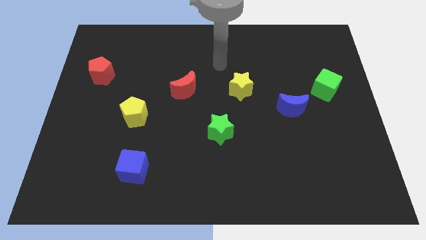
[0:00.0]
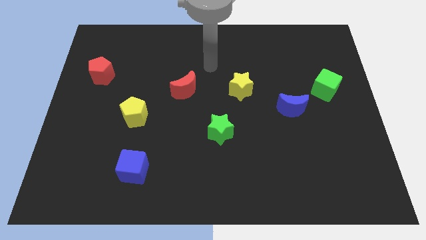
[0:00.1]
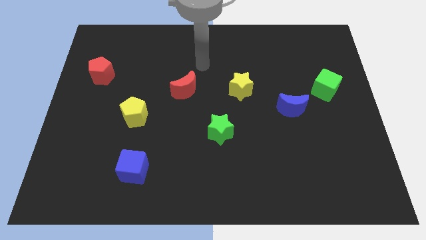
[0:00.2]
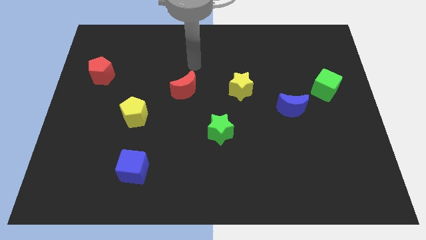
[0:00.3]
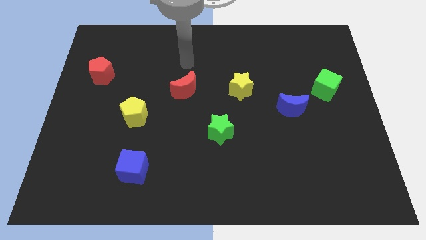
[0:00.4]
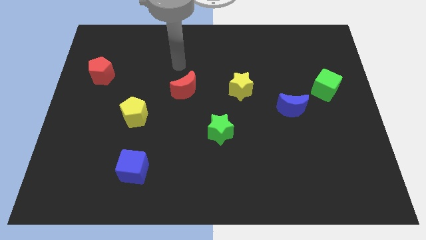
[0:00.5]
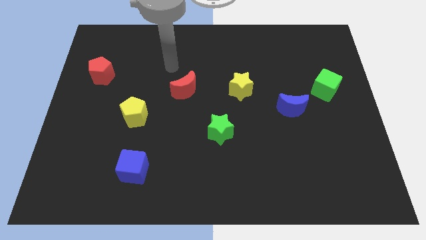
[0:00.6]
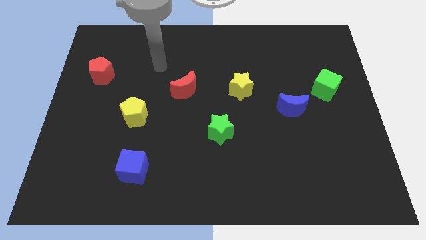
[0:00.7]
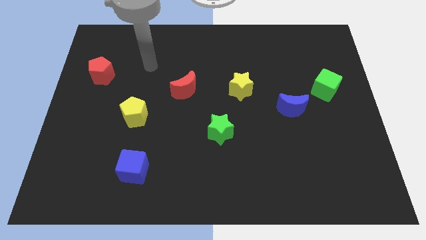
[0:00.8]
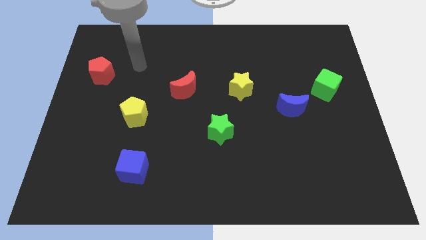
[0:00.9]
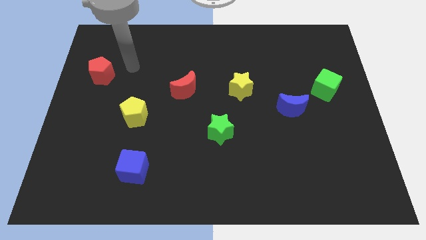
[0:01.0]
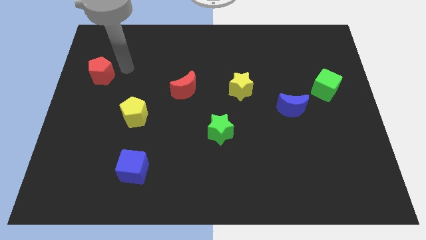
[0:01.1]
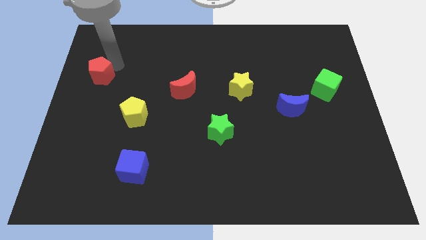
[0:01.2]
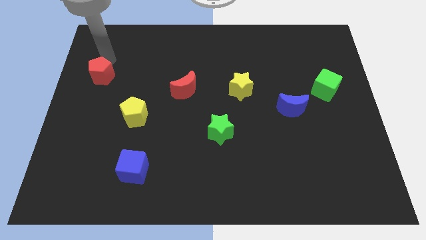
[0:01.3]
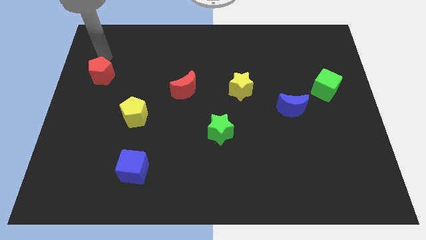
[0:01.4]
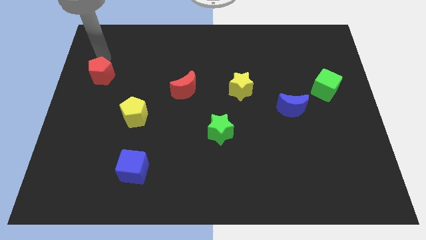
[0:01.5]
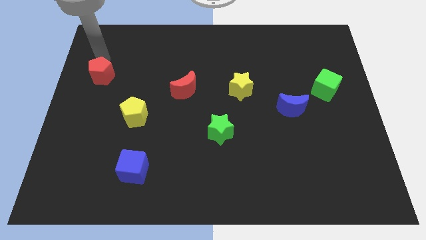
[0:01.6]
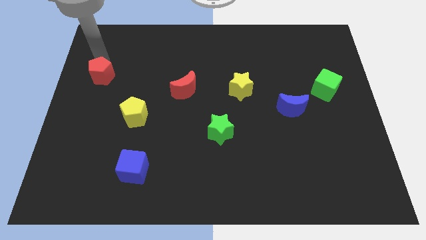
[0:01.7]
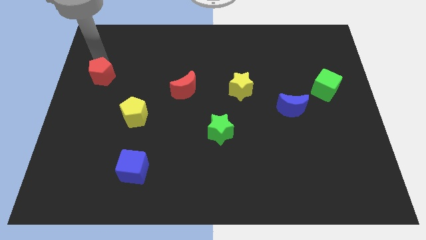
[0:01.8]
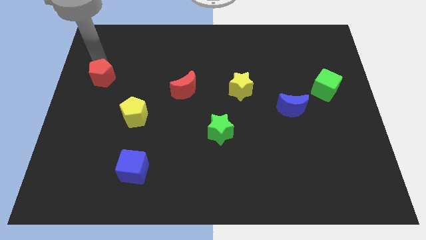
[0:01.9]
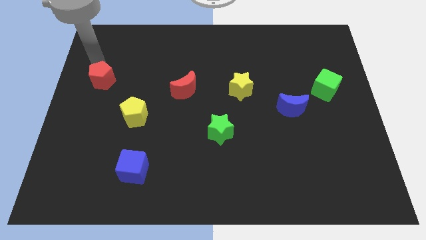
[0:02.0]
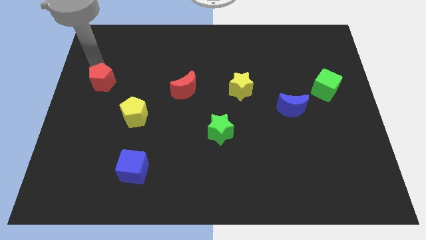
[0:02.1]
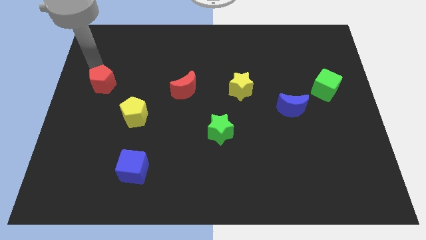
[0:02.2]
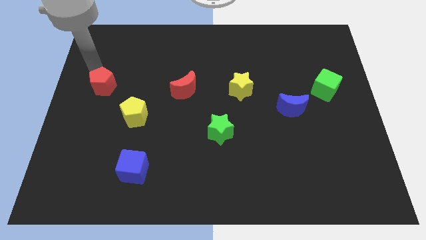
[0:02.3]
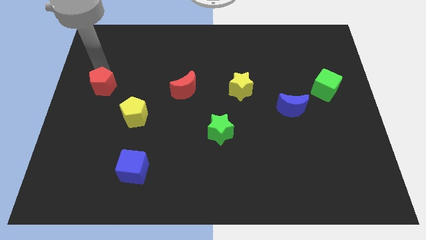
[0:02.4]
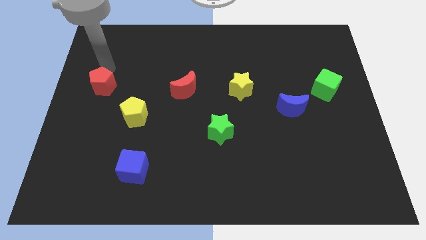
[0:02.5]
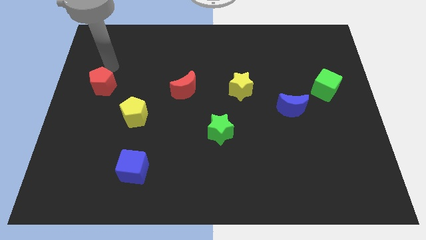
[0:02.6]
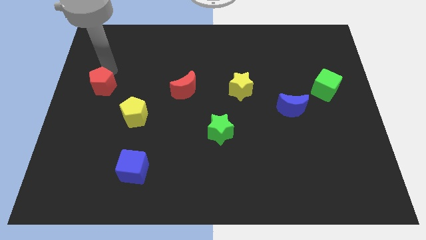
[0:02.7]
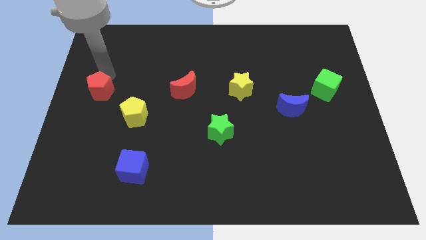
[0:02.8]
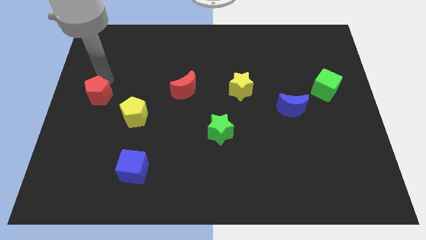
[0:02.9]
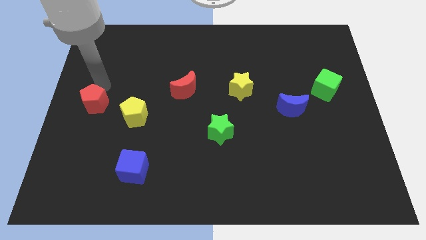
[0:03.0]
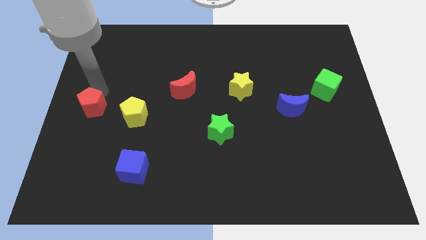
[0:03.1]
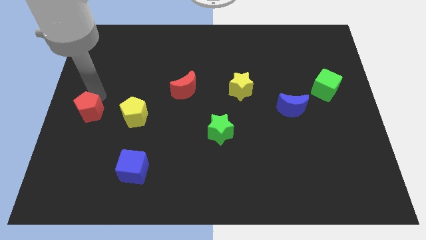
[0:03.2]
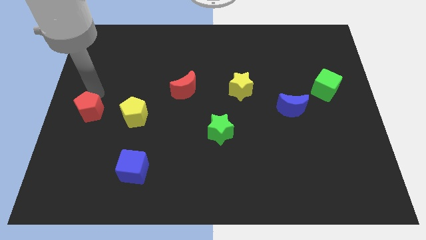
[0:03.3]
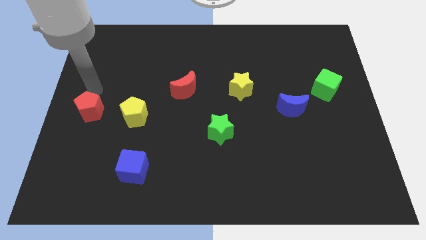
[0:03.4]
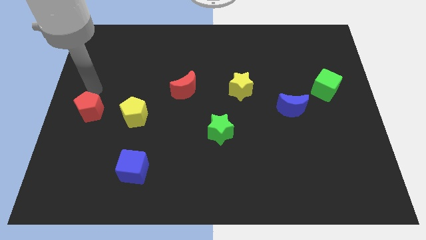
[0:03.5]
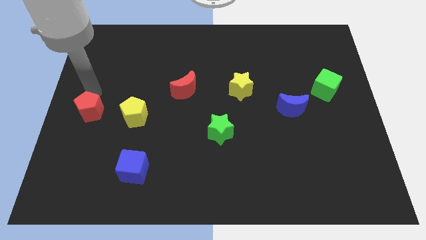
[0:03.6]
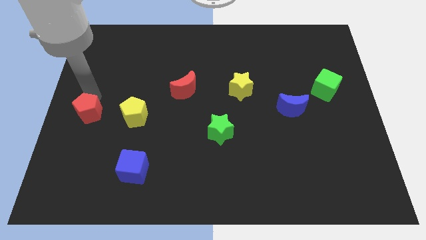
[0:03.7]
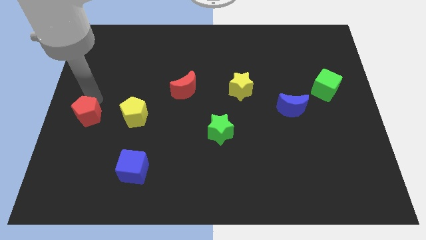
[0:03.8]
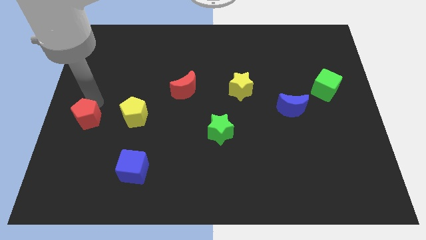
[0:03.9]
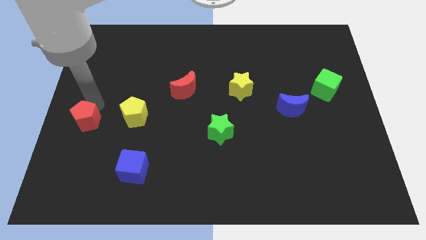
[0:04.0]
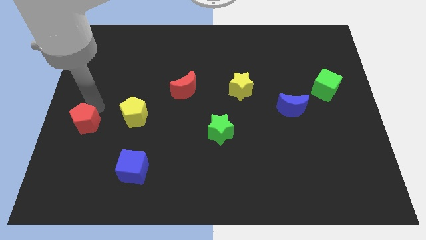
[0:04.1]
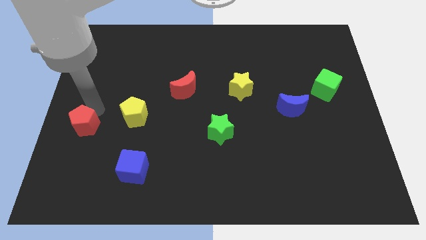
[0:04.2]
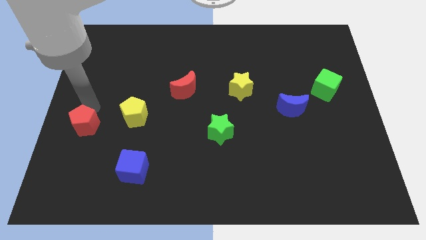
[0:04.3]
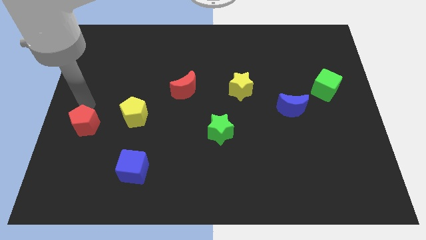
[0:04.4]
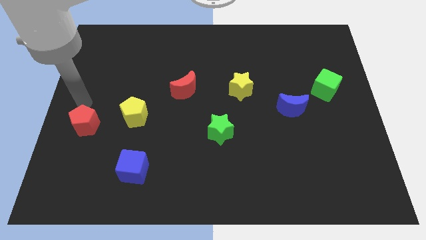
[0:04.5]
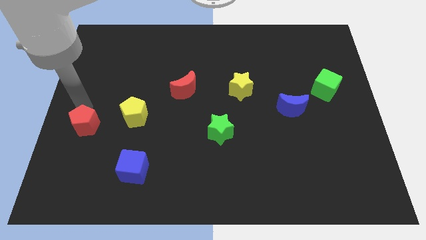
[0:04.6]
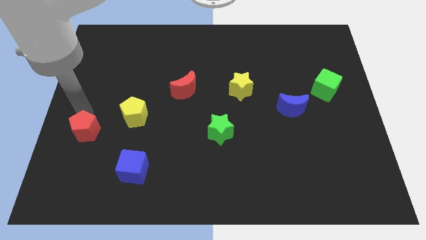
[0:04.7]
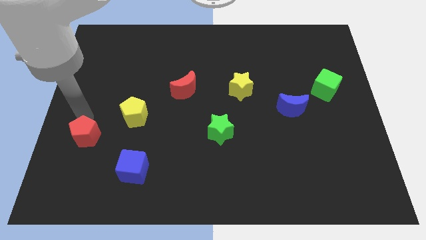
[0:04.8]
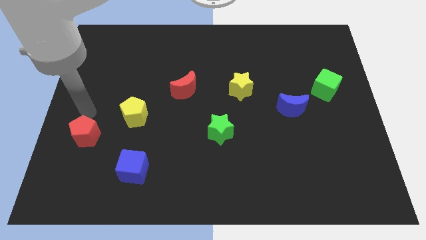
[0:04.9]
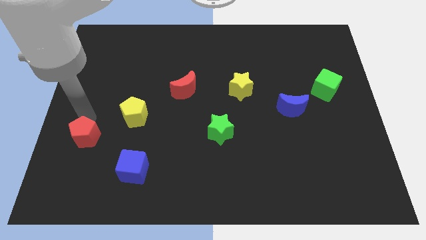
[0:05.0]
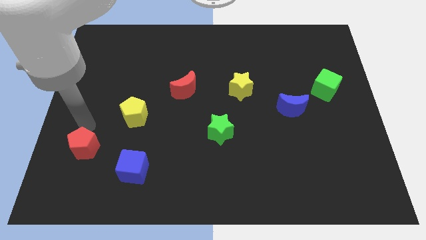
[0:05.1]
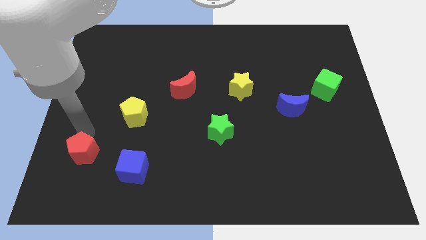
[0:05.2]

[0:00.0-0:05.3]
put the red pentagon to the left side of the blue cube

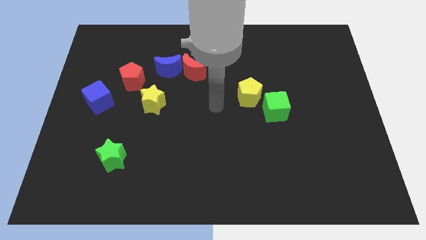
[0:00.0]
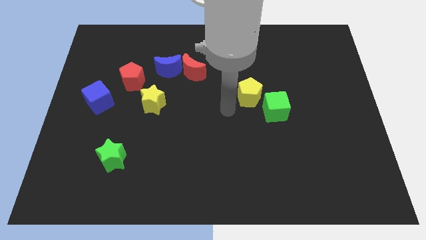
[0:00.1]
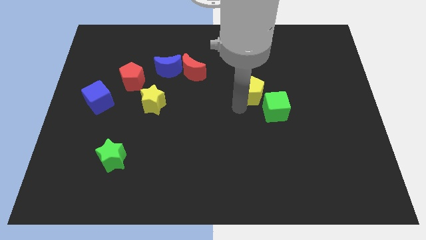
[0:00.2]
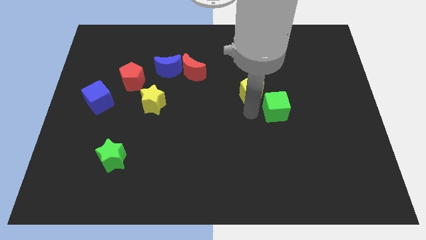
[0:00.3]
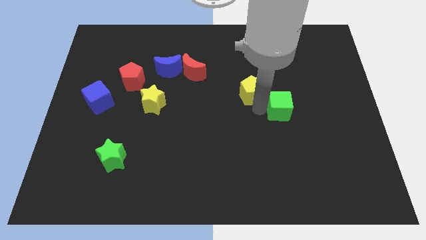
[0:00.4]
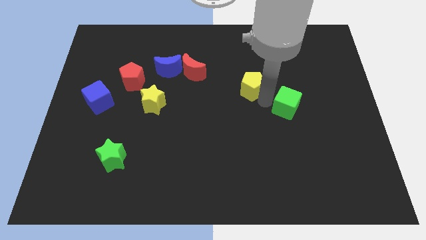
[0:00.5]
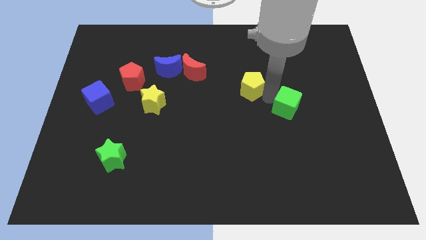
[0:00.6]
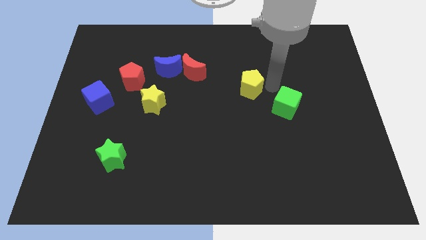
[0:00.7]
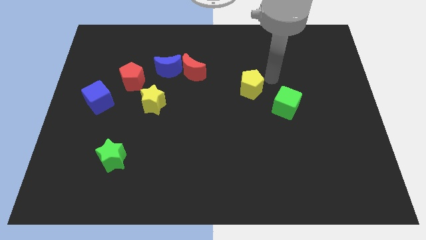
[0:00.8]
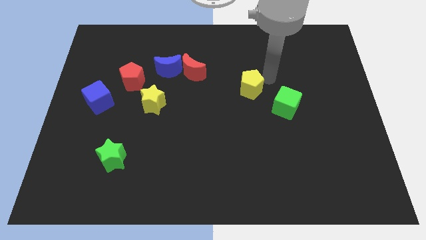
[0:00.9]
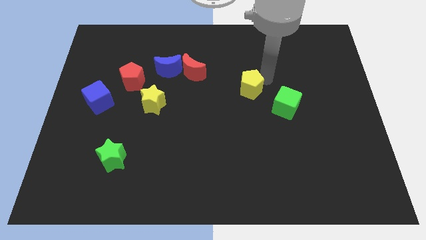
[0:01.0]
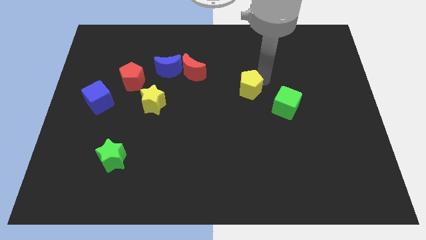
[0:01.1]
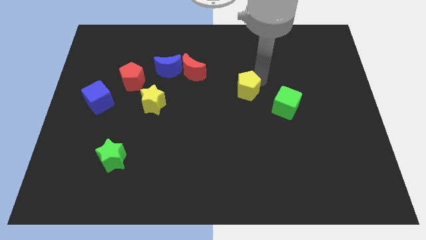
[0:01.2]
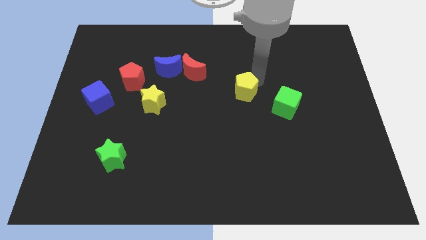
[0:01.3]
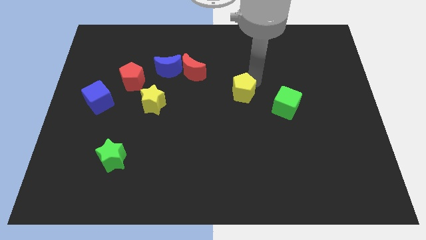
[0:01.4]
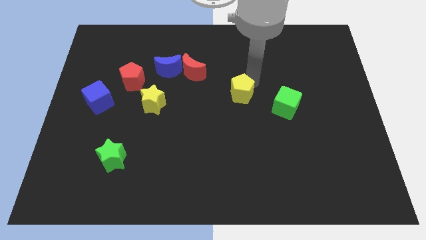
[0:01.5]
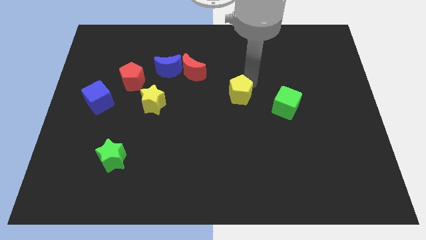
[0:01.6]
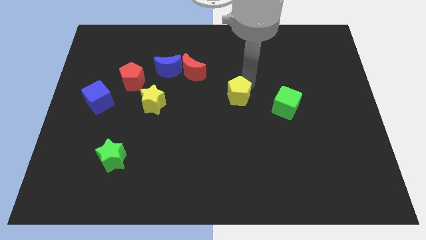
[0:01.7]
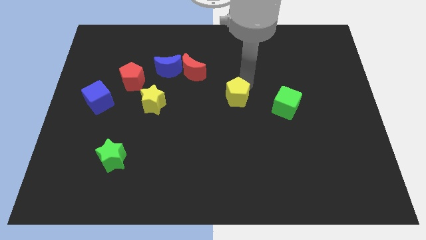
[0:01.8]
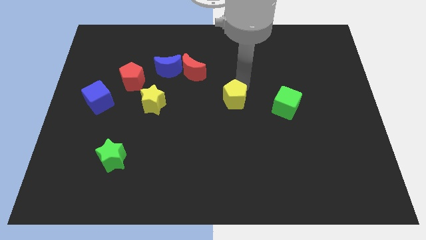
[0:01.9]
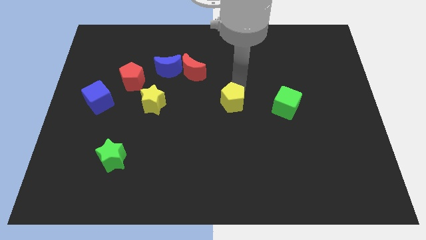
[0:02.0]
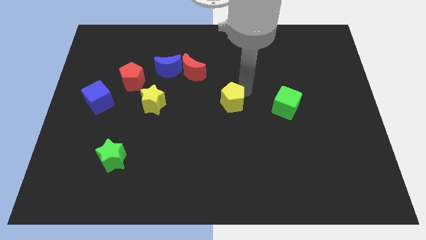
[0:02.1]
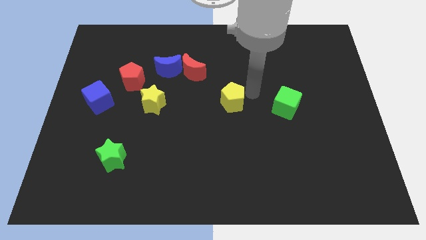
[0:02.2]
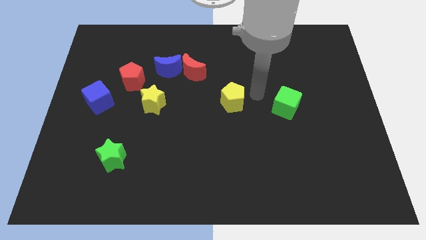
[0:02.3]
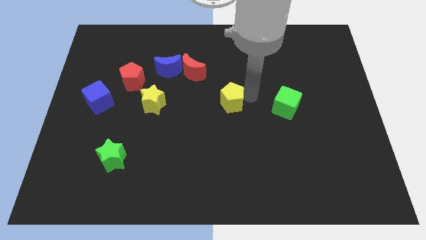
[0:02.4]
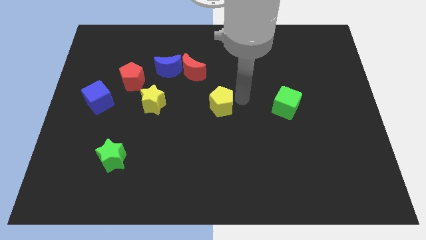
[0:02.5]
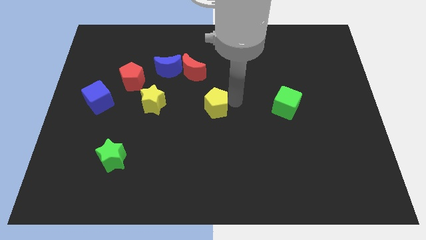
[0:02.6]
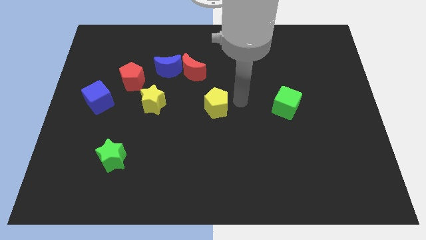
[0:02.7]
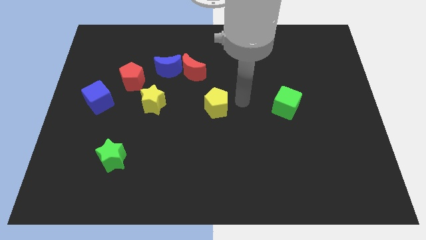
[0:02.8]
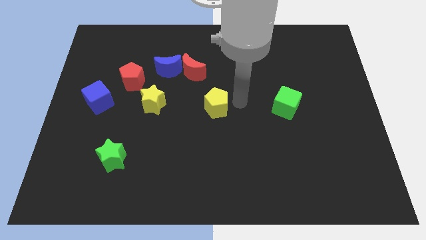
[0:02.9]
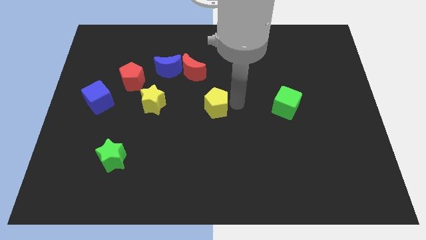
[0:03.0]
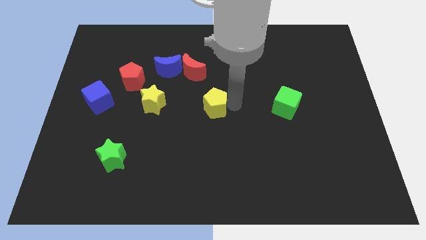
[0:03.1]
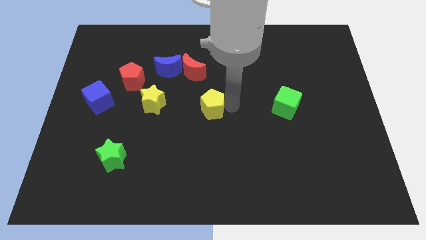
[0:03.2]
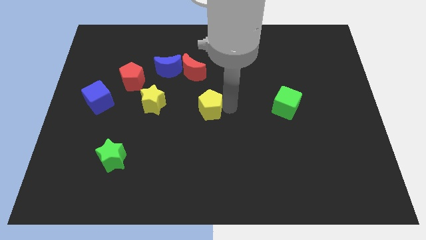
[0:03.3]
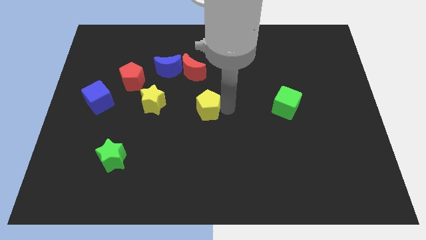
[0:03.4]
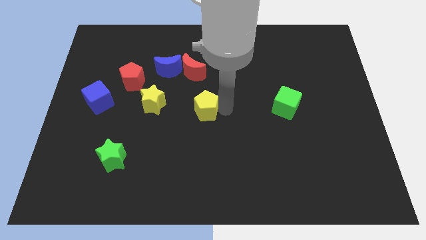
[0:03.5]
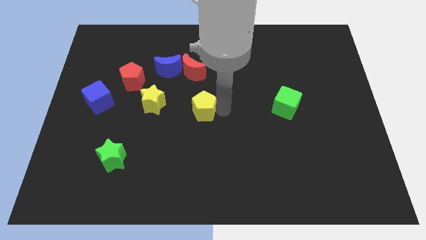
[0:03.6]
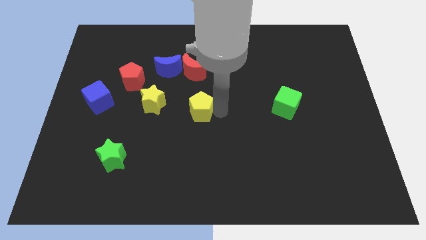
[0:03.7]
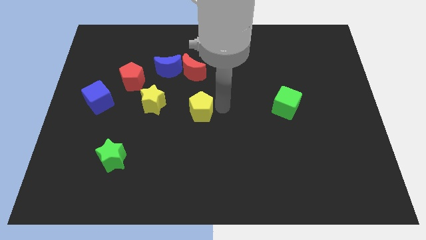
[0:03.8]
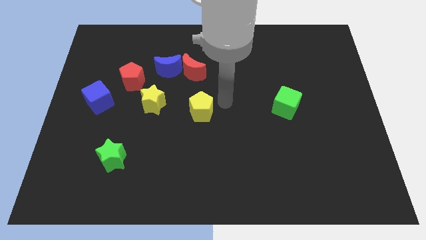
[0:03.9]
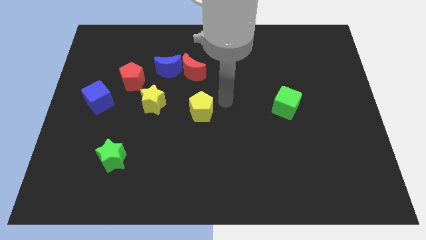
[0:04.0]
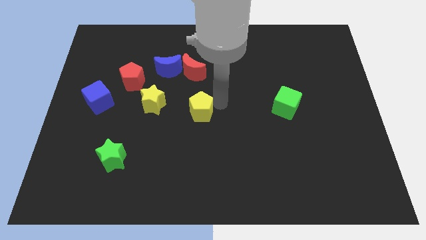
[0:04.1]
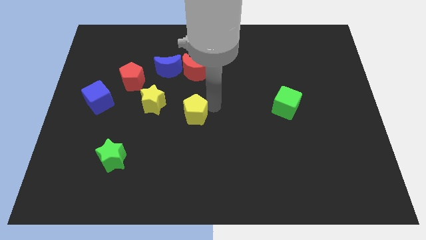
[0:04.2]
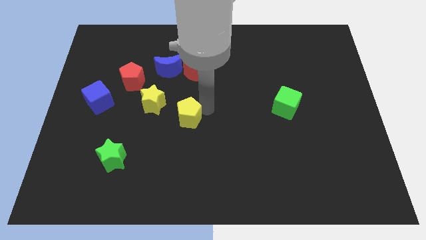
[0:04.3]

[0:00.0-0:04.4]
put the yellow pentagon to the bottom right of the yellow star
